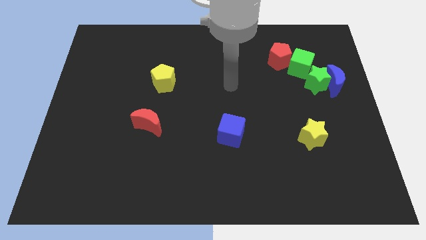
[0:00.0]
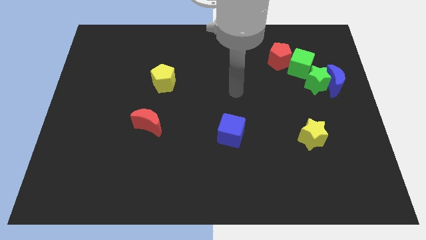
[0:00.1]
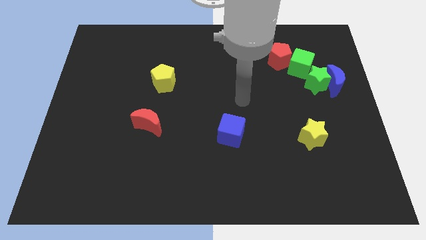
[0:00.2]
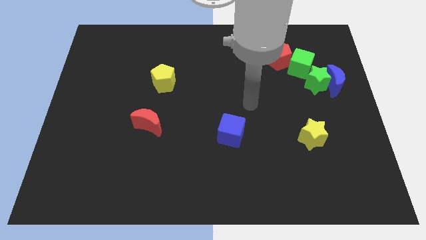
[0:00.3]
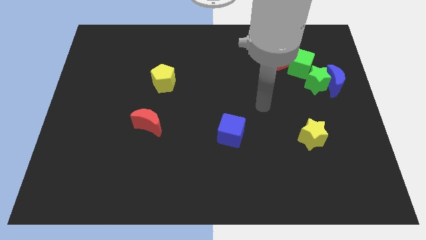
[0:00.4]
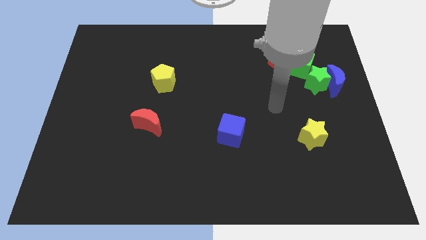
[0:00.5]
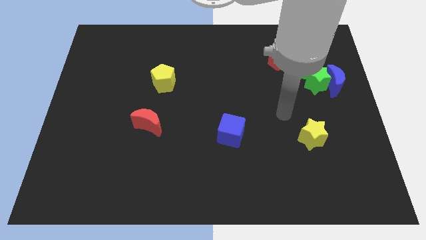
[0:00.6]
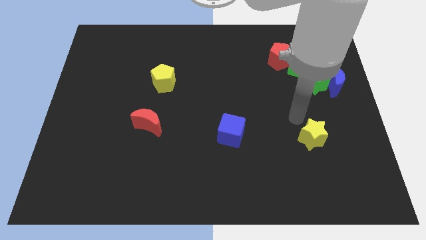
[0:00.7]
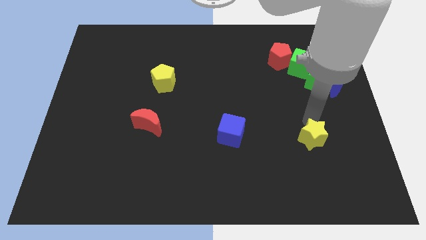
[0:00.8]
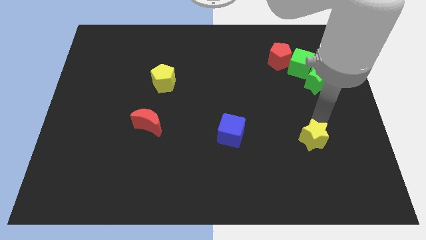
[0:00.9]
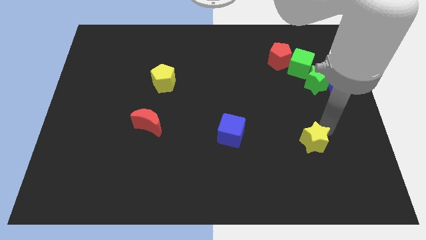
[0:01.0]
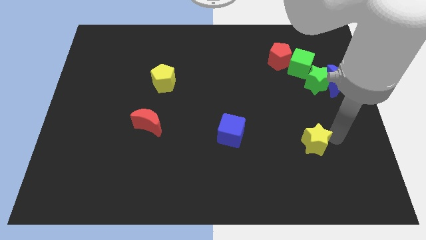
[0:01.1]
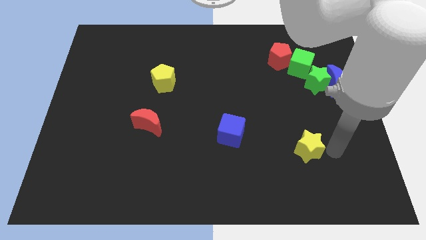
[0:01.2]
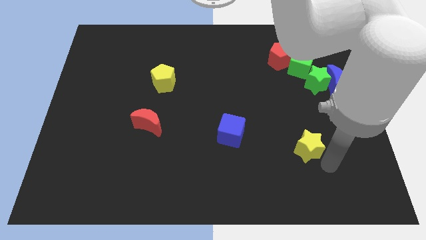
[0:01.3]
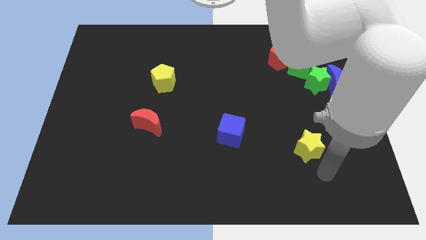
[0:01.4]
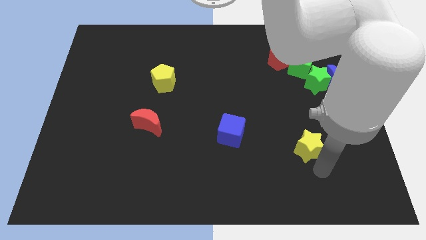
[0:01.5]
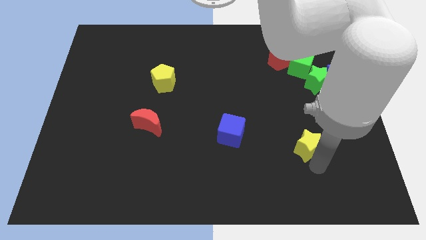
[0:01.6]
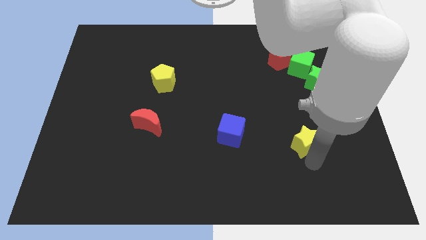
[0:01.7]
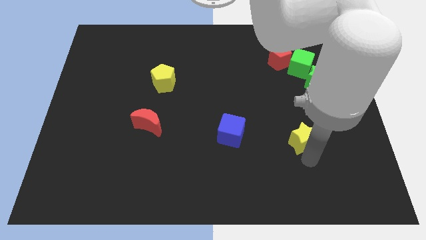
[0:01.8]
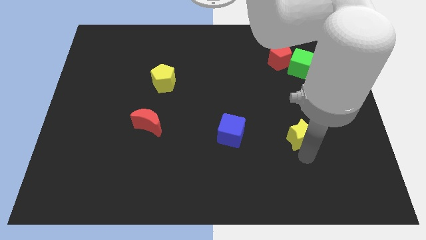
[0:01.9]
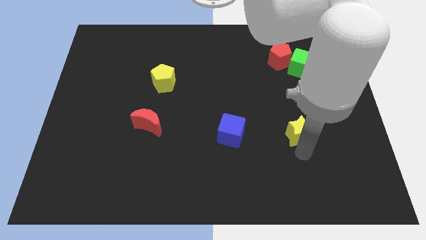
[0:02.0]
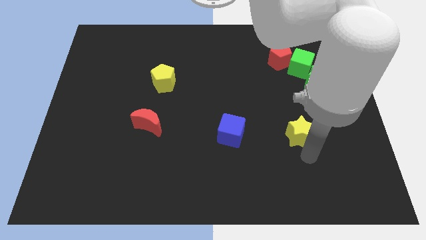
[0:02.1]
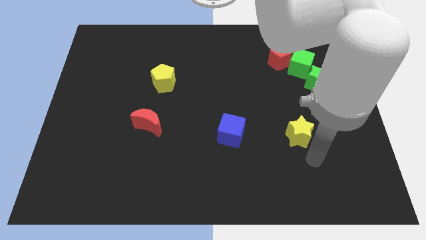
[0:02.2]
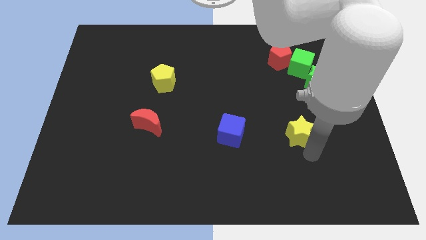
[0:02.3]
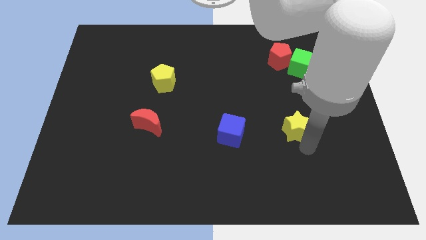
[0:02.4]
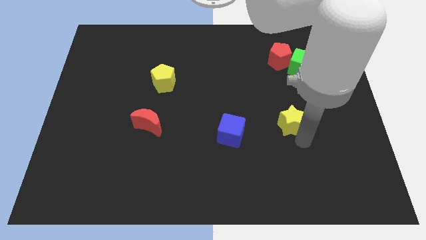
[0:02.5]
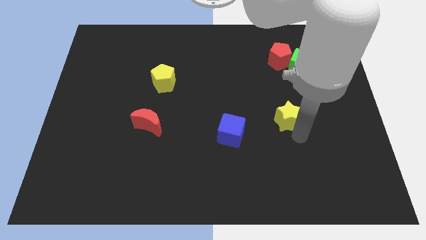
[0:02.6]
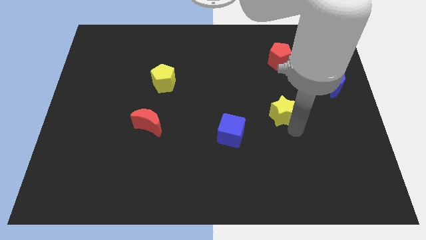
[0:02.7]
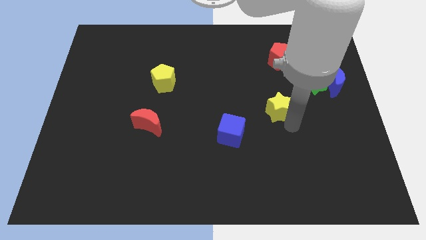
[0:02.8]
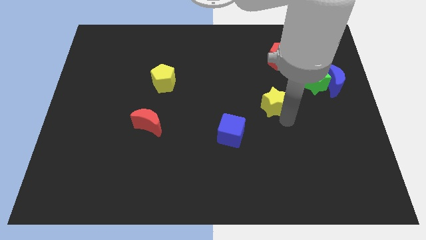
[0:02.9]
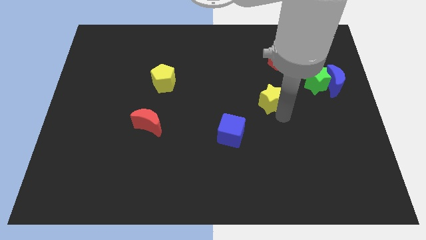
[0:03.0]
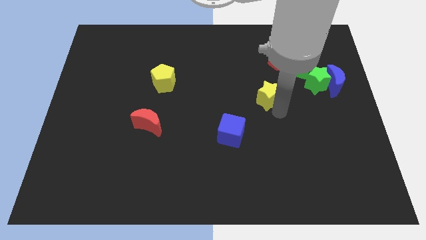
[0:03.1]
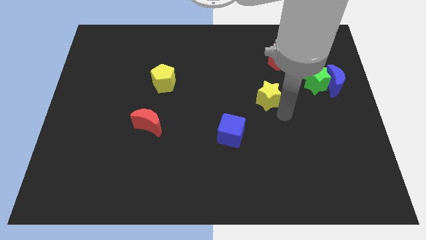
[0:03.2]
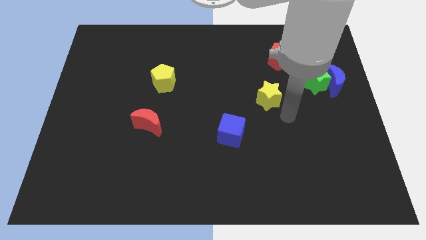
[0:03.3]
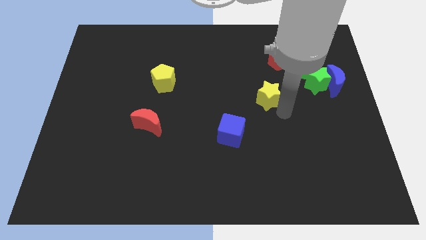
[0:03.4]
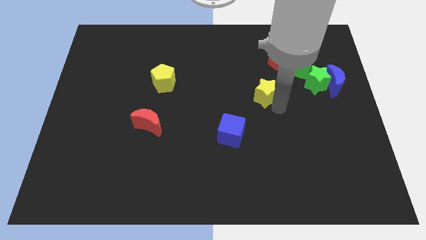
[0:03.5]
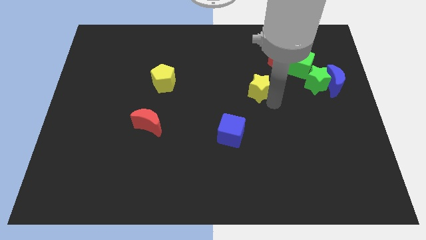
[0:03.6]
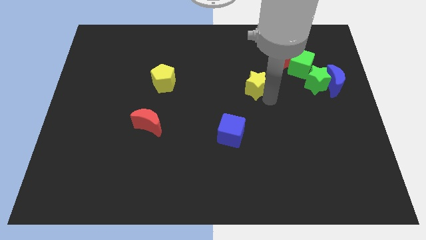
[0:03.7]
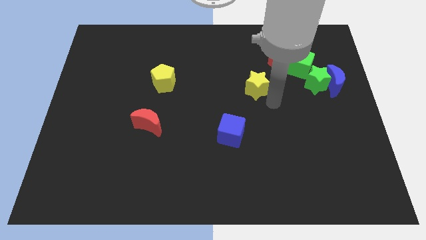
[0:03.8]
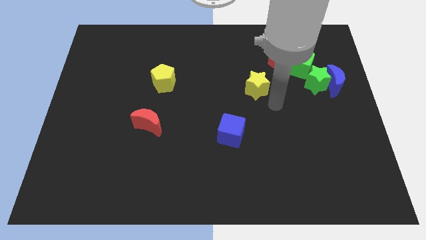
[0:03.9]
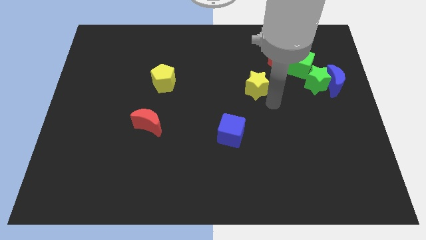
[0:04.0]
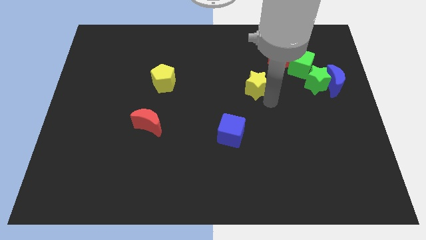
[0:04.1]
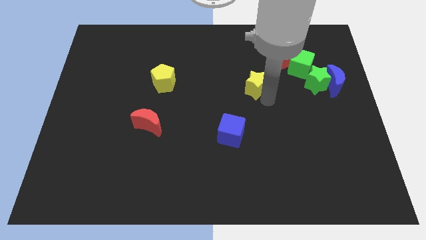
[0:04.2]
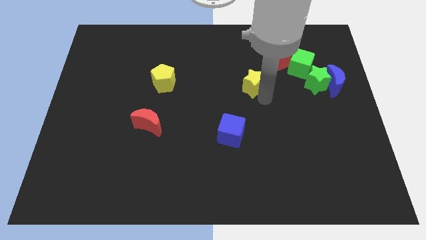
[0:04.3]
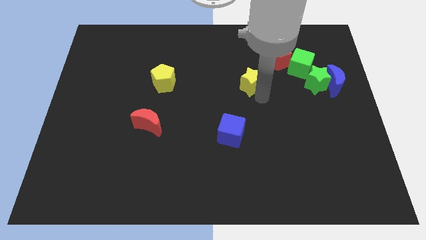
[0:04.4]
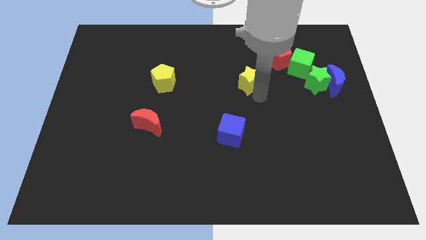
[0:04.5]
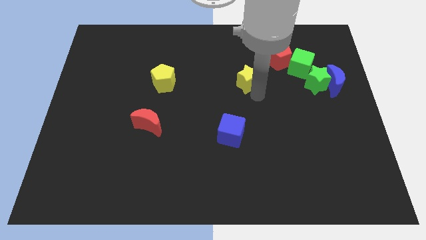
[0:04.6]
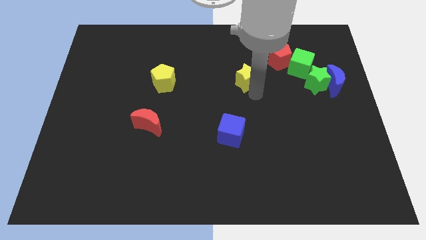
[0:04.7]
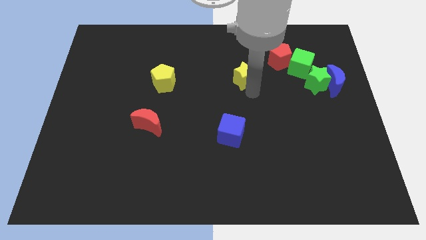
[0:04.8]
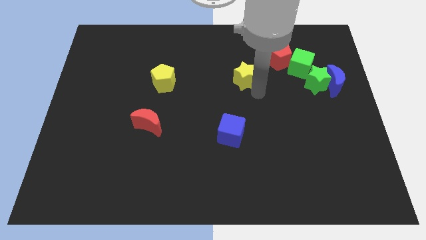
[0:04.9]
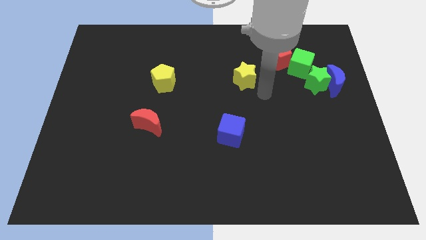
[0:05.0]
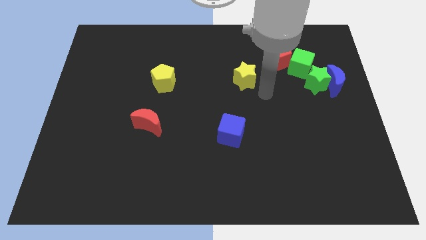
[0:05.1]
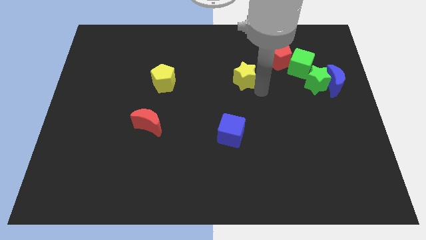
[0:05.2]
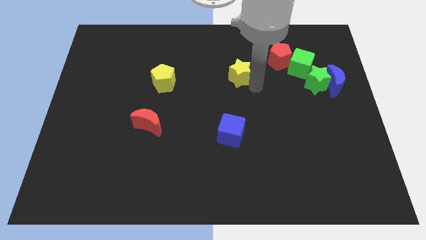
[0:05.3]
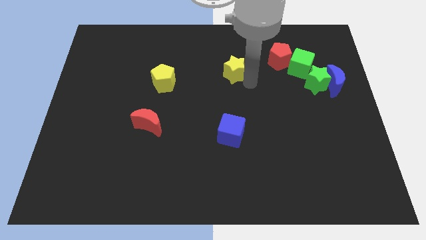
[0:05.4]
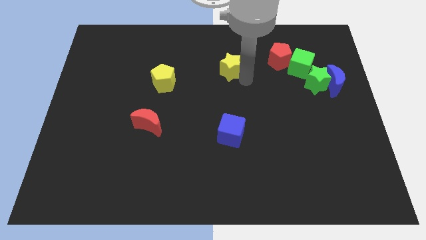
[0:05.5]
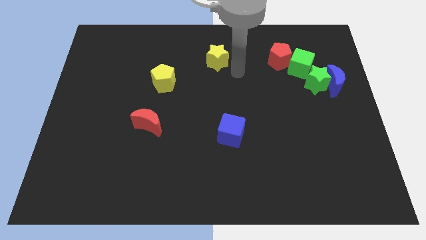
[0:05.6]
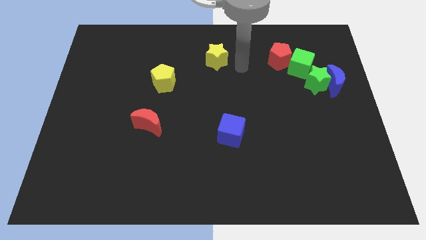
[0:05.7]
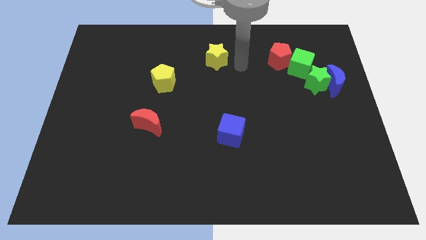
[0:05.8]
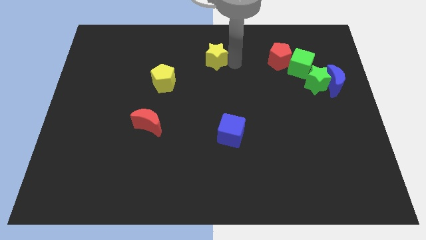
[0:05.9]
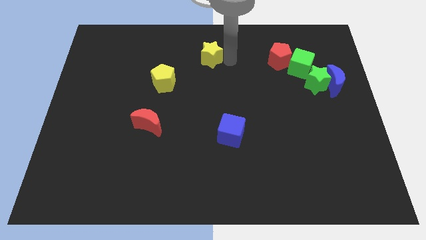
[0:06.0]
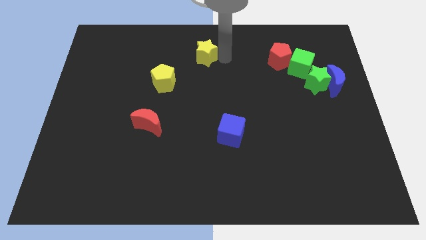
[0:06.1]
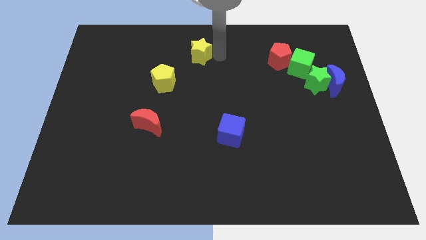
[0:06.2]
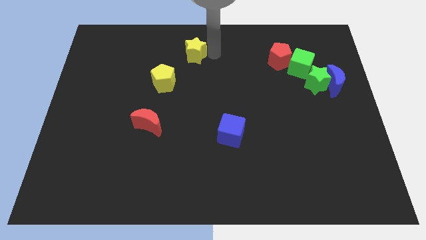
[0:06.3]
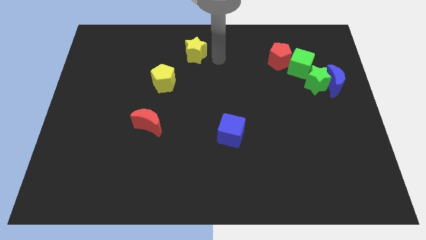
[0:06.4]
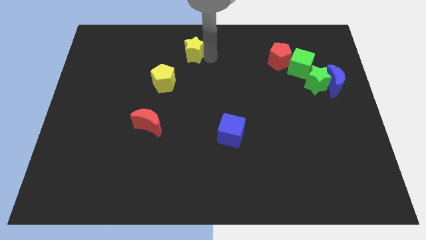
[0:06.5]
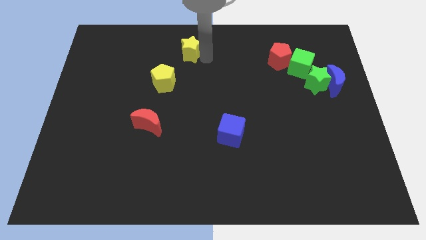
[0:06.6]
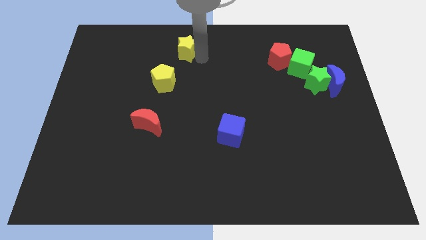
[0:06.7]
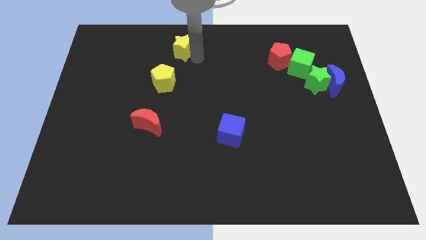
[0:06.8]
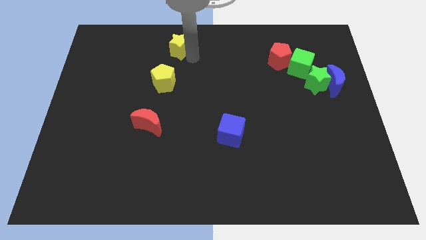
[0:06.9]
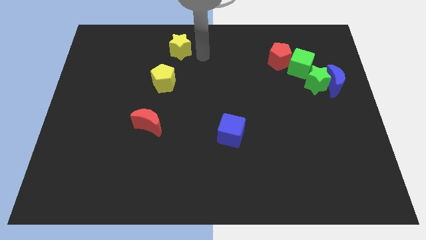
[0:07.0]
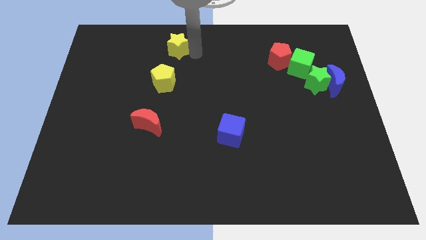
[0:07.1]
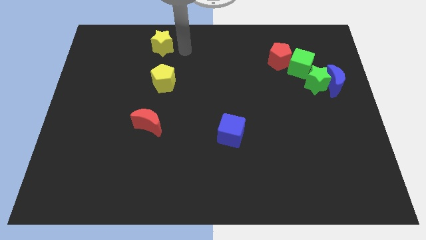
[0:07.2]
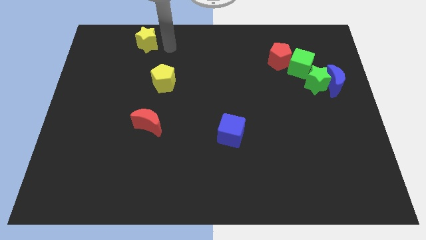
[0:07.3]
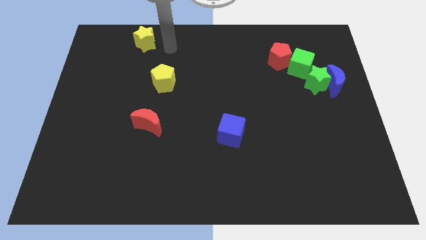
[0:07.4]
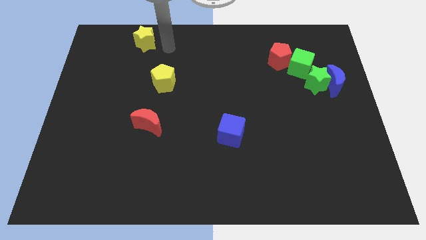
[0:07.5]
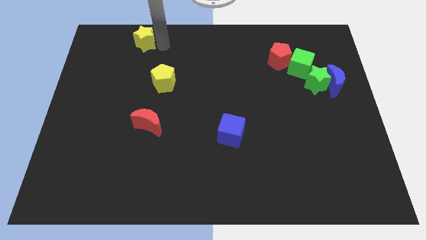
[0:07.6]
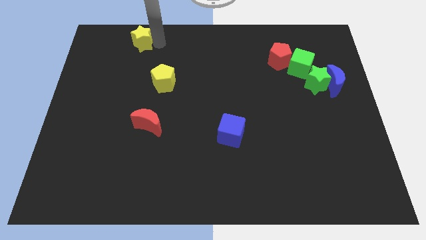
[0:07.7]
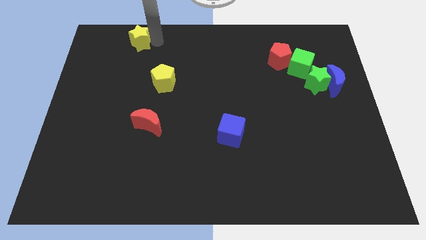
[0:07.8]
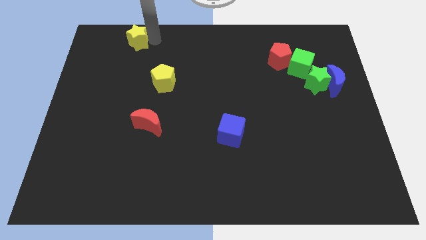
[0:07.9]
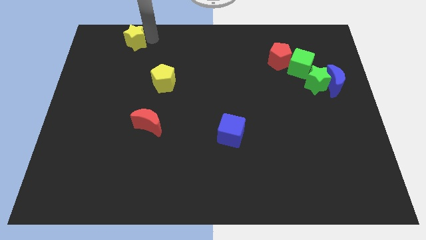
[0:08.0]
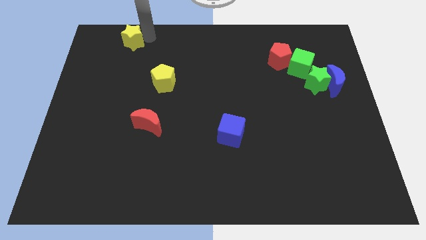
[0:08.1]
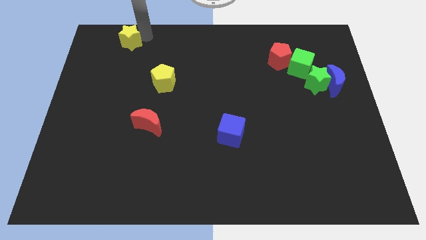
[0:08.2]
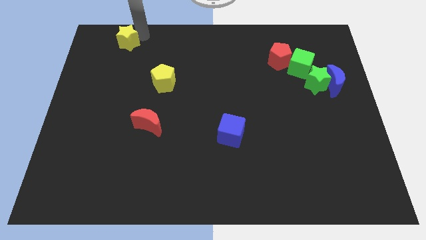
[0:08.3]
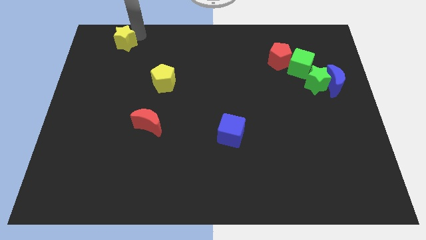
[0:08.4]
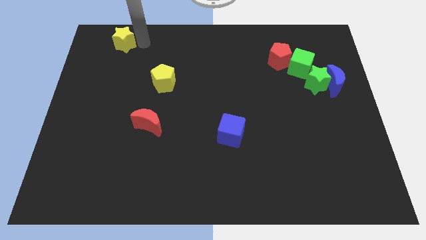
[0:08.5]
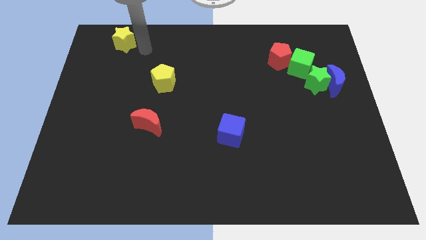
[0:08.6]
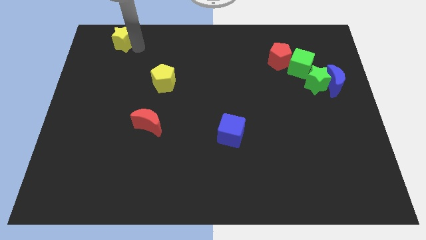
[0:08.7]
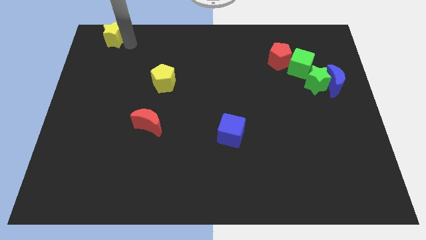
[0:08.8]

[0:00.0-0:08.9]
move the yellow star to the top left
